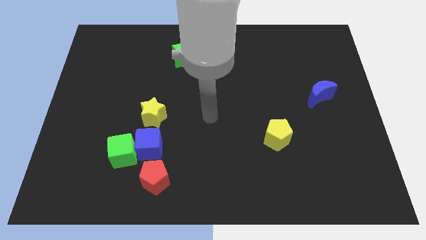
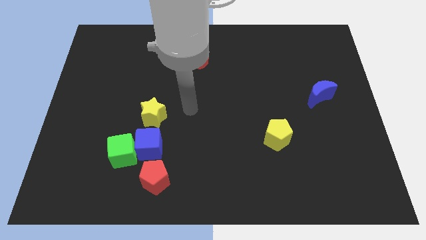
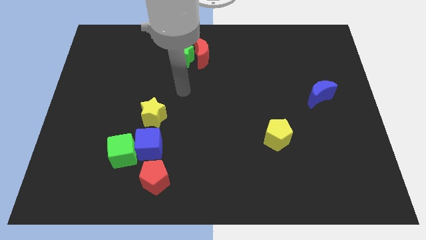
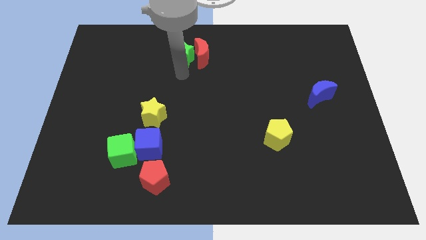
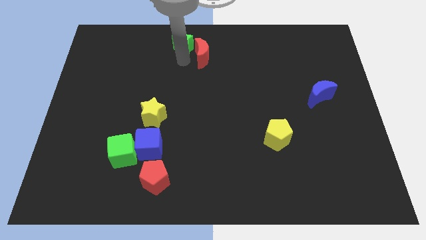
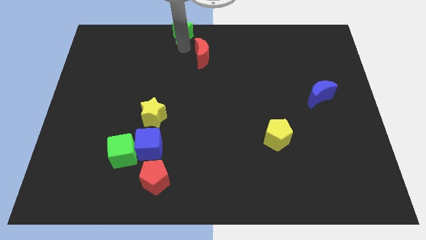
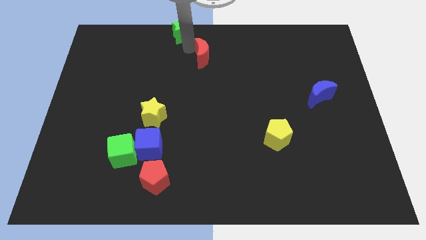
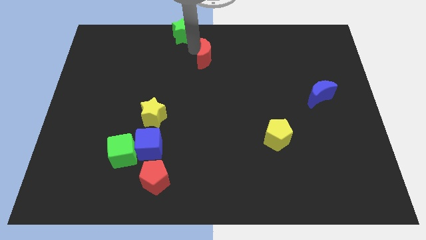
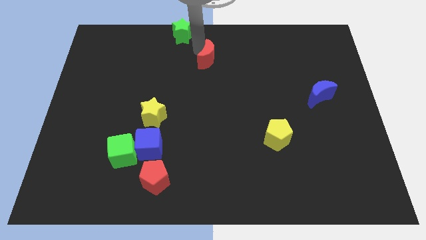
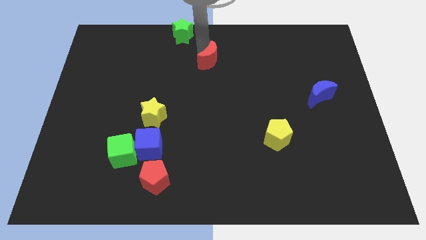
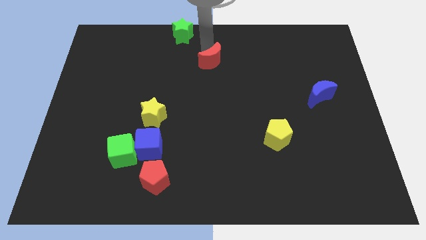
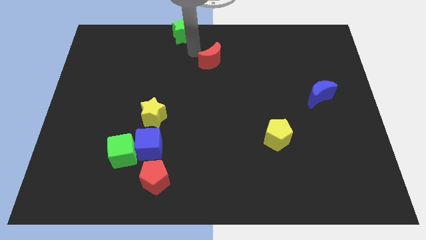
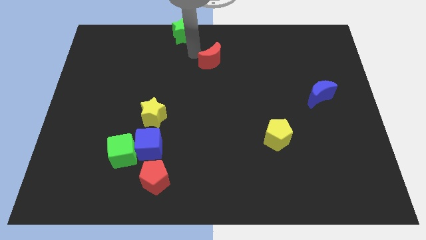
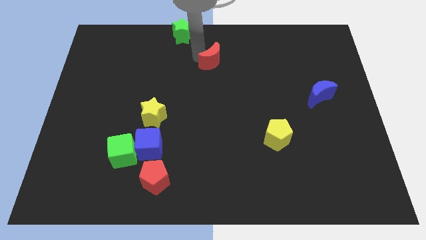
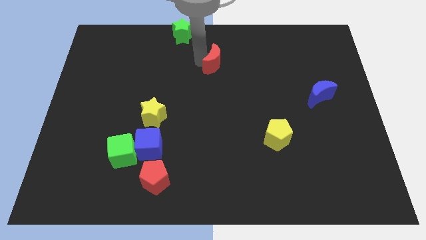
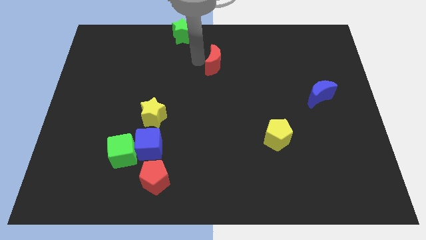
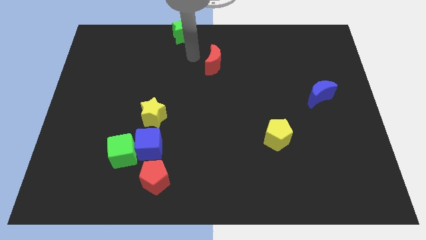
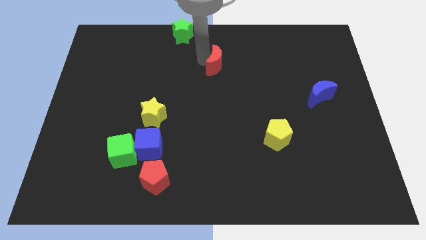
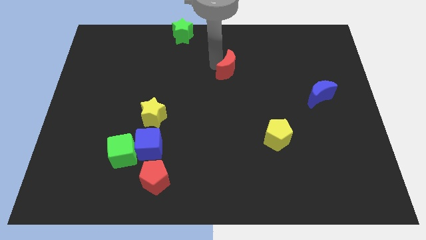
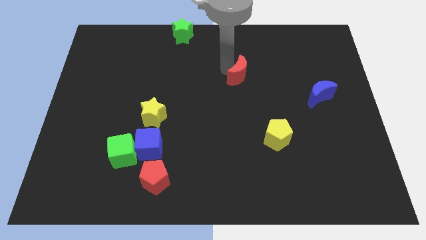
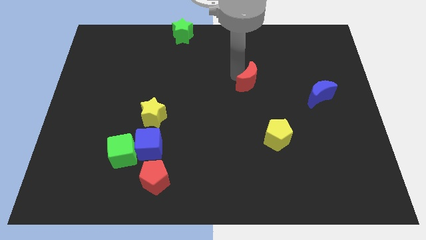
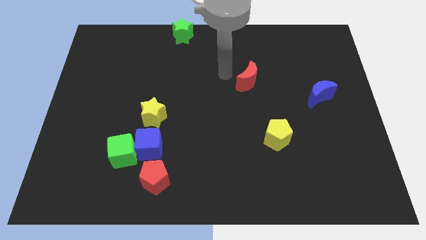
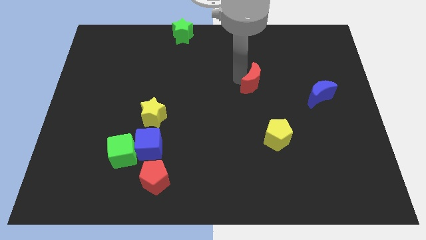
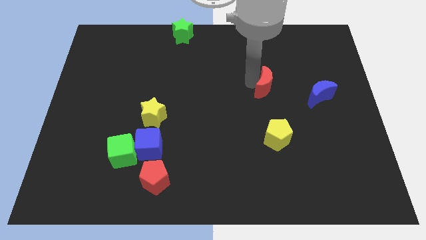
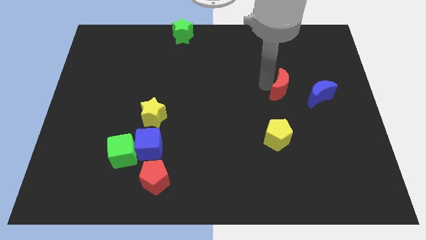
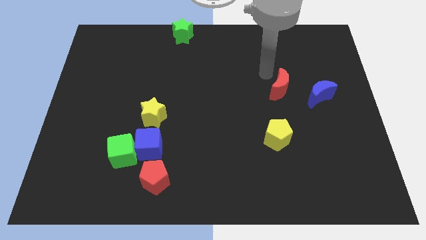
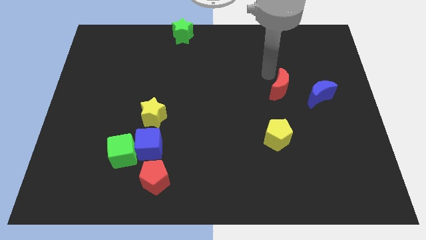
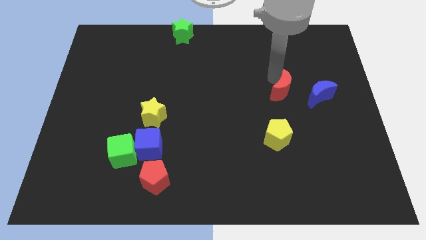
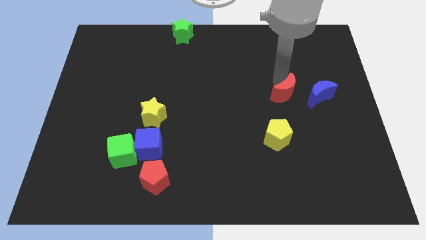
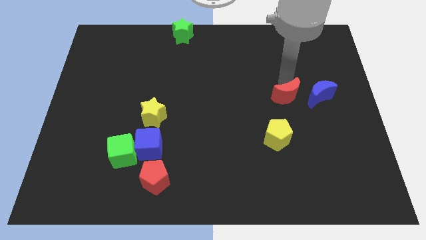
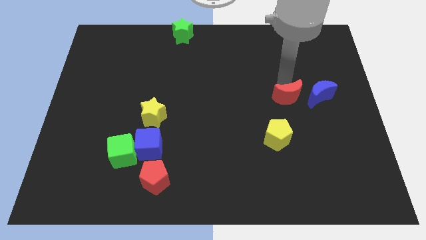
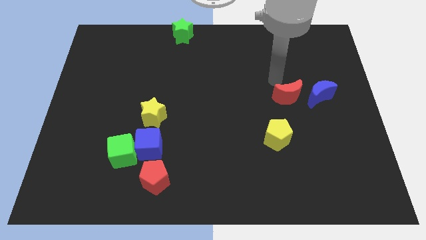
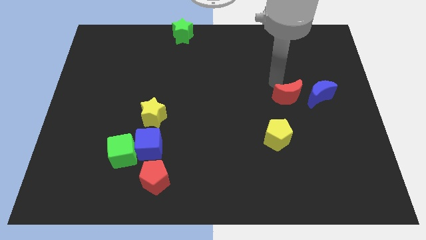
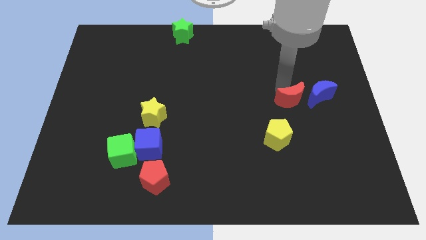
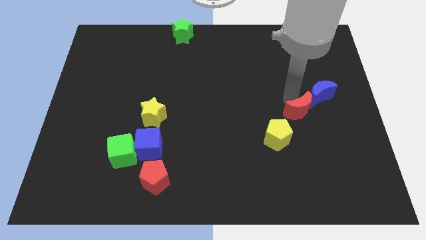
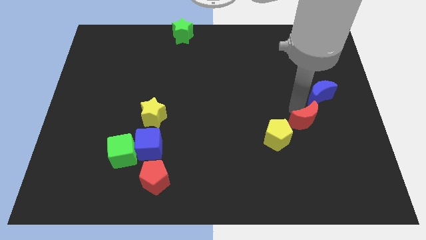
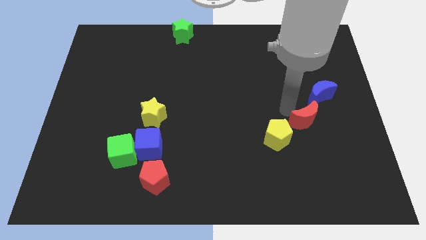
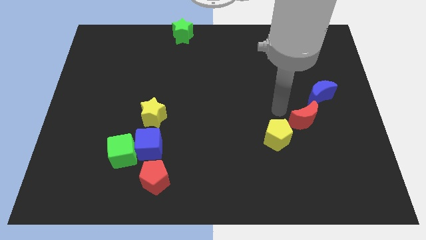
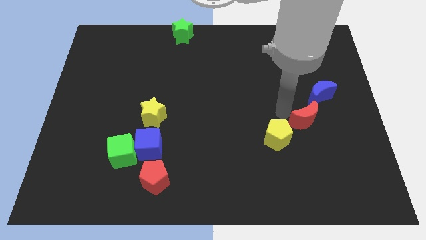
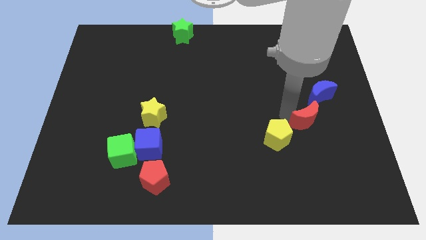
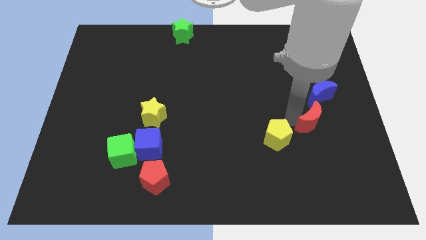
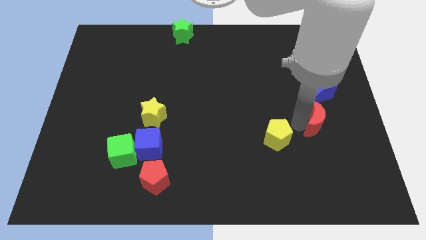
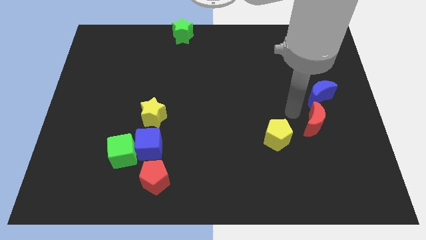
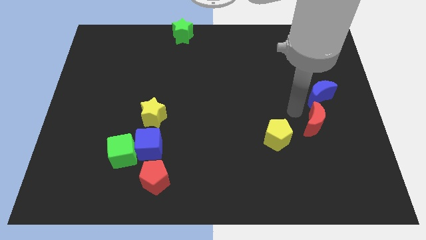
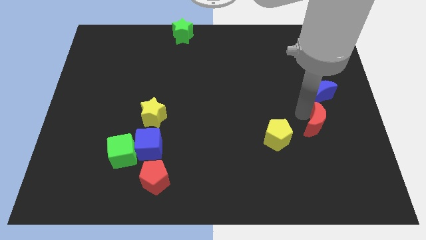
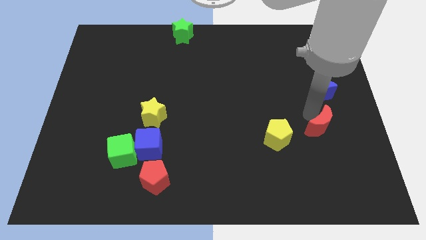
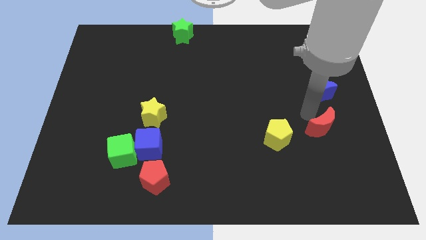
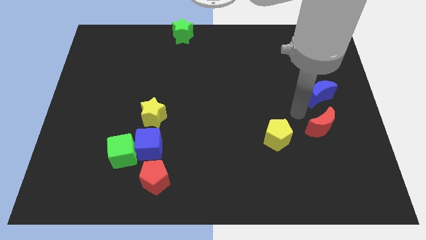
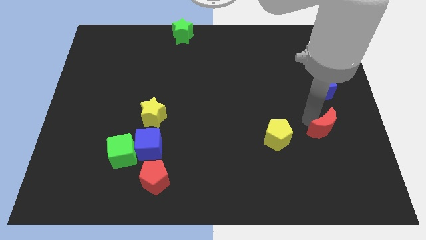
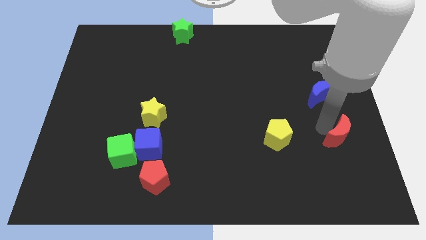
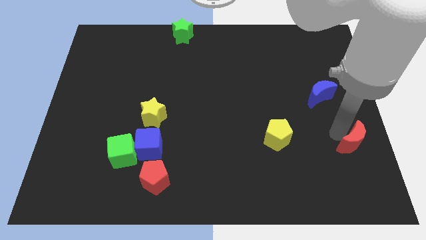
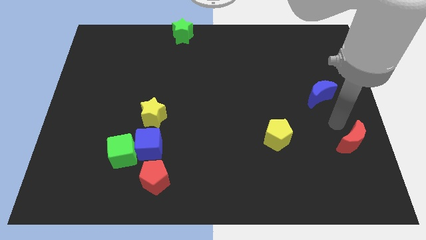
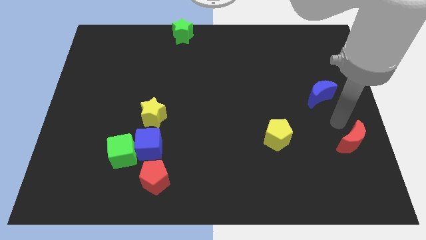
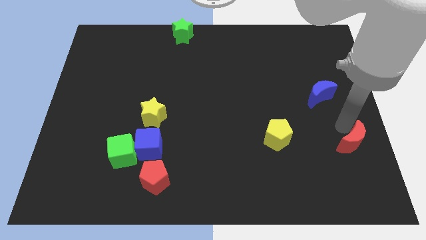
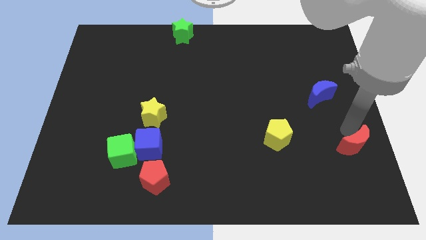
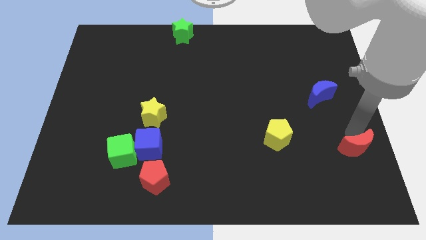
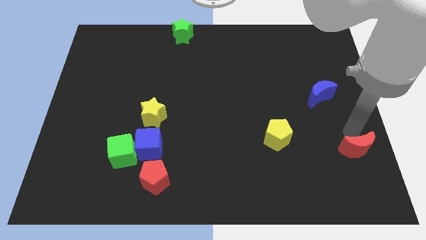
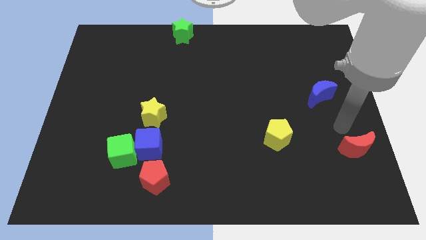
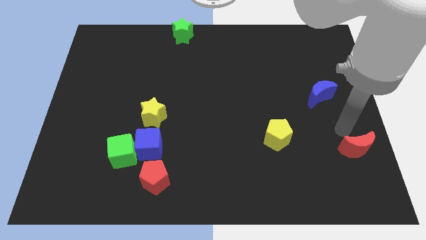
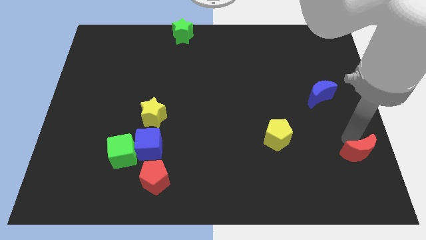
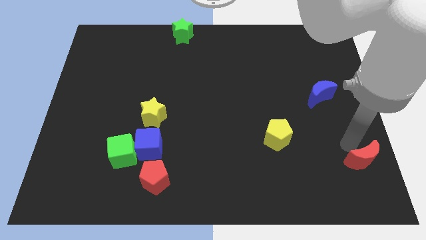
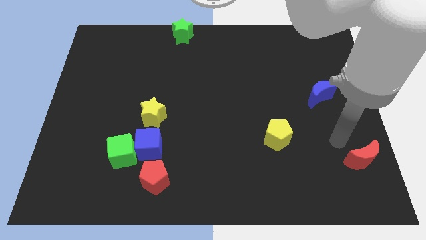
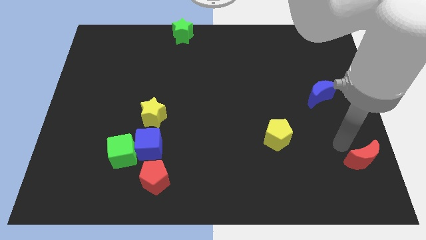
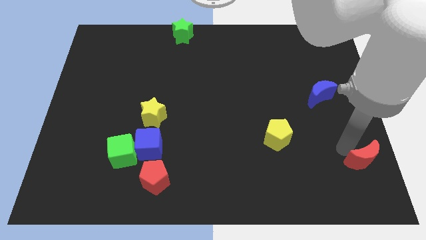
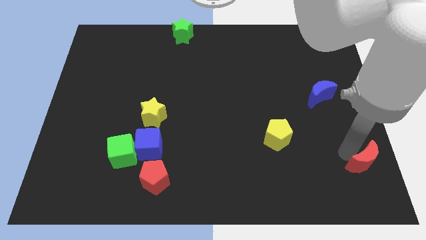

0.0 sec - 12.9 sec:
push the red moon to the bottom right corner
